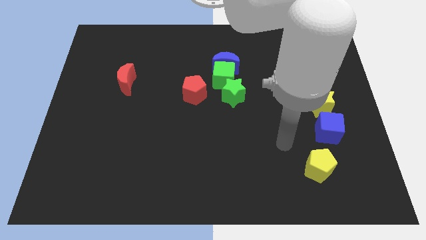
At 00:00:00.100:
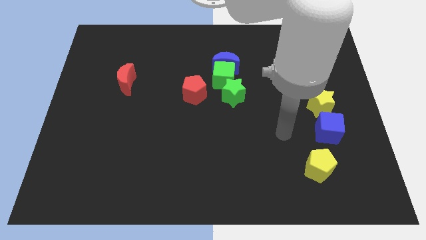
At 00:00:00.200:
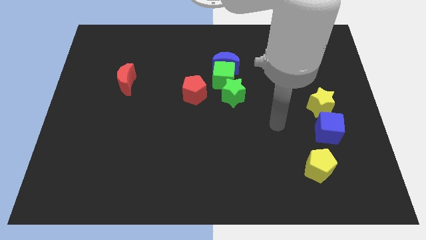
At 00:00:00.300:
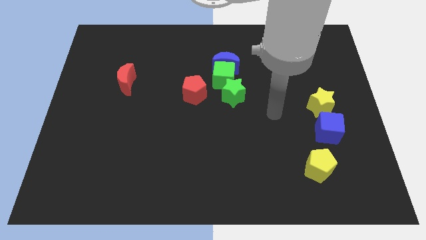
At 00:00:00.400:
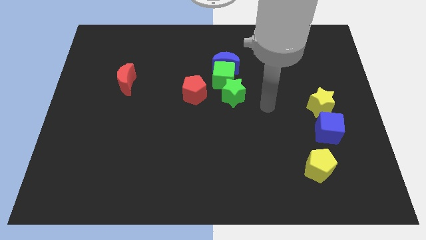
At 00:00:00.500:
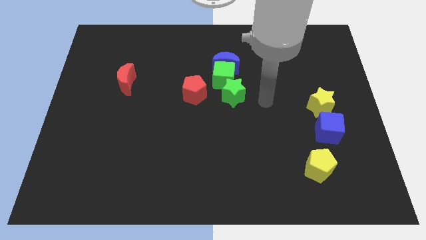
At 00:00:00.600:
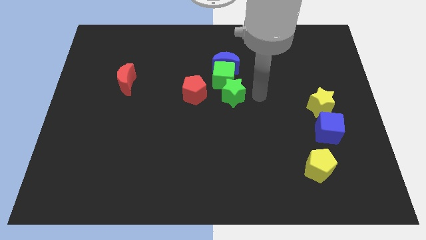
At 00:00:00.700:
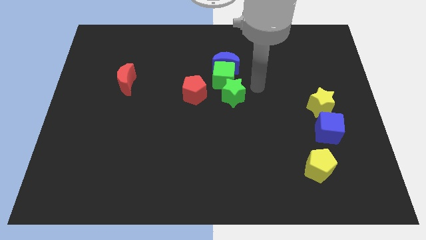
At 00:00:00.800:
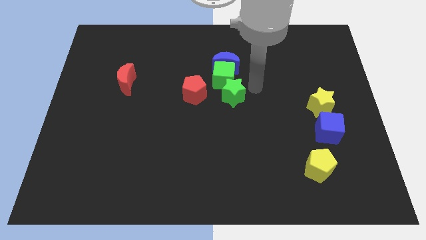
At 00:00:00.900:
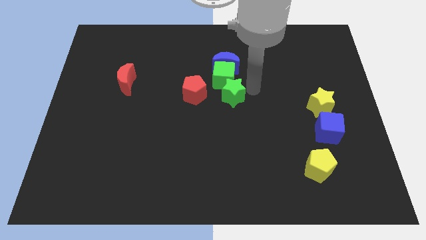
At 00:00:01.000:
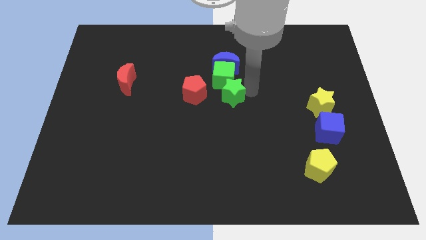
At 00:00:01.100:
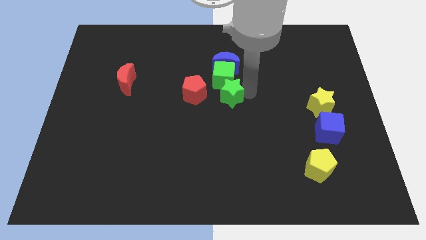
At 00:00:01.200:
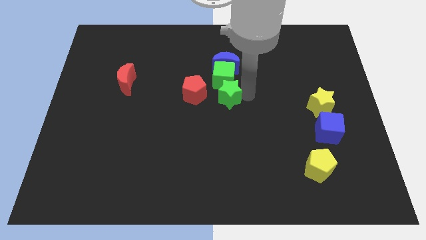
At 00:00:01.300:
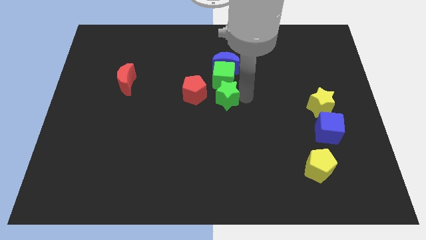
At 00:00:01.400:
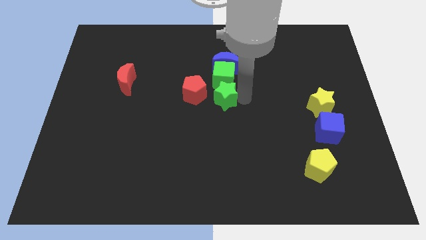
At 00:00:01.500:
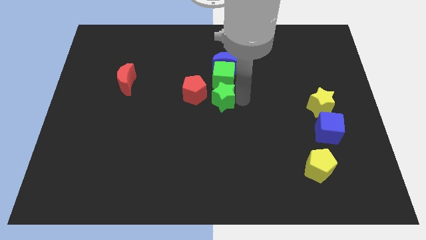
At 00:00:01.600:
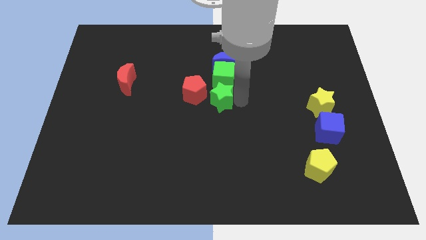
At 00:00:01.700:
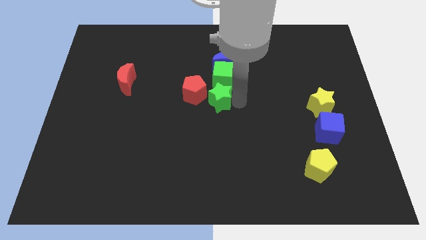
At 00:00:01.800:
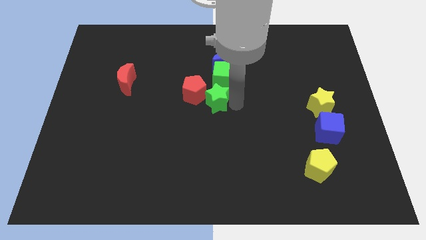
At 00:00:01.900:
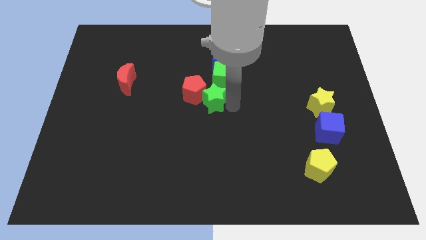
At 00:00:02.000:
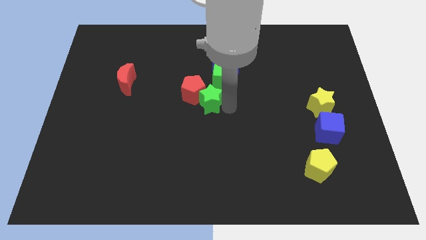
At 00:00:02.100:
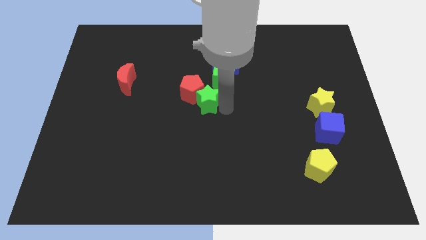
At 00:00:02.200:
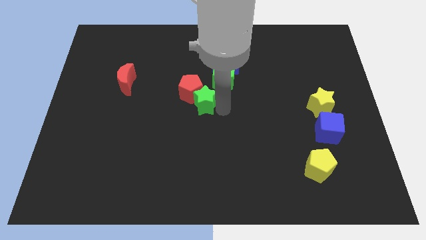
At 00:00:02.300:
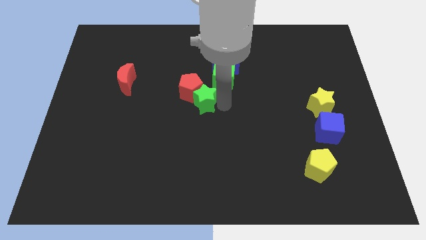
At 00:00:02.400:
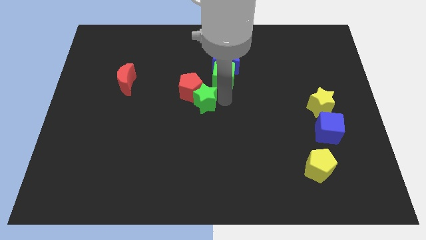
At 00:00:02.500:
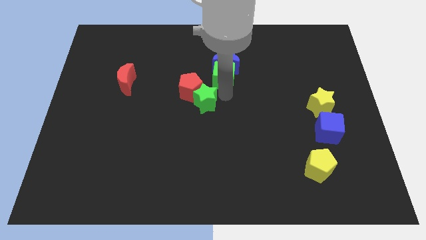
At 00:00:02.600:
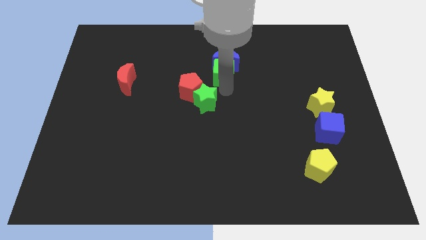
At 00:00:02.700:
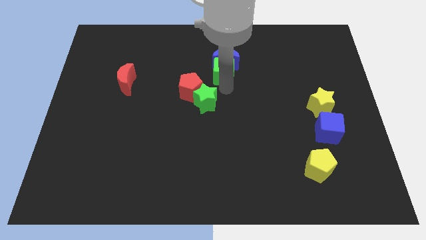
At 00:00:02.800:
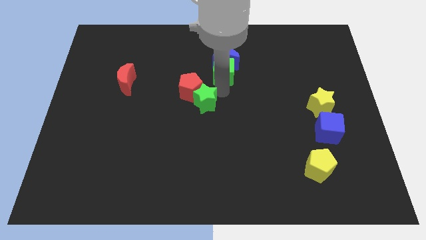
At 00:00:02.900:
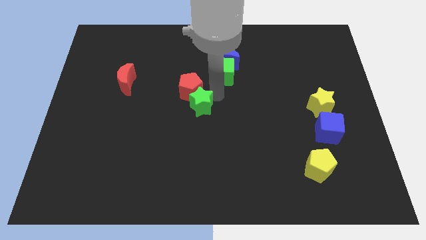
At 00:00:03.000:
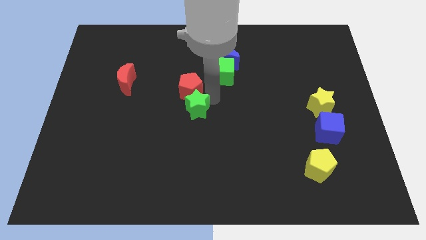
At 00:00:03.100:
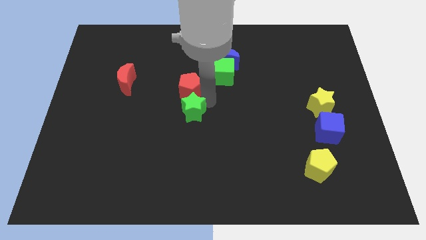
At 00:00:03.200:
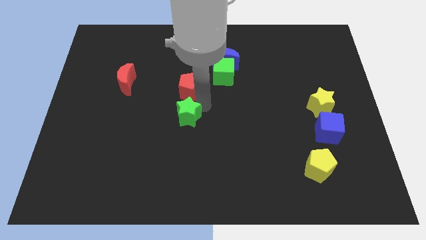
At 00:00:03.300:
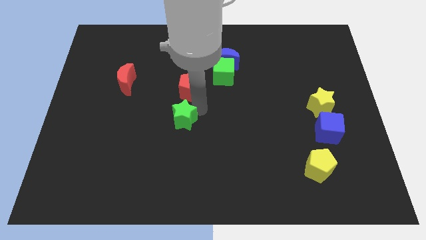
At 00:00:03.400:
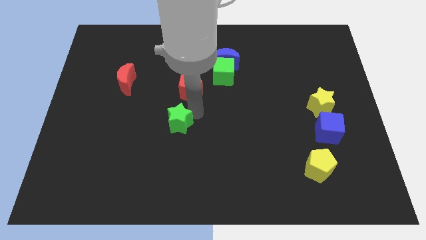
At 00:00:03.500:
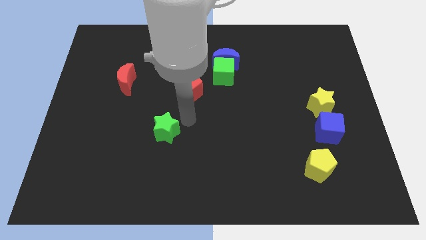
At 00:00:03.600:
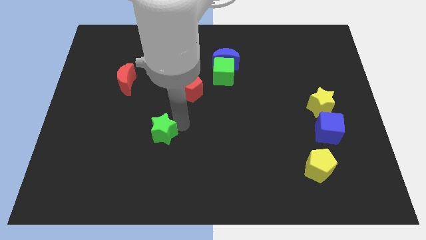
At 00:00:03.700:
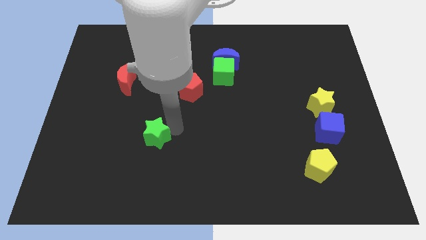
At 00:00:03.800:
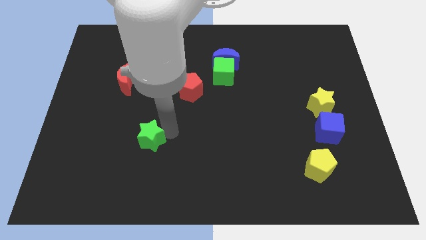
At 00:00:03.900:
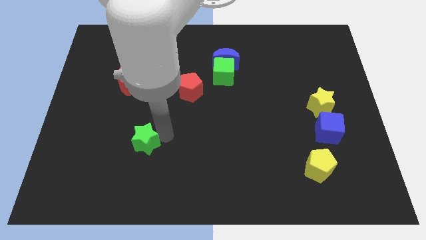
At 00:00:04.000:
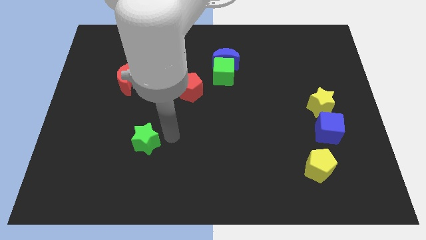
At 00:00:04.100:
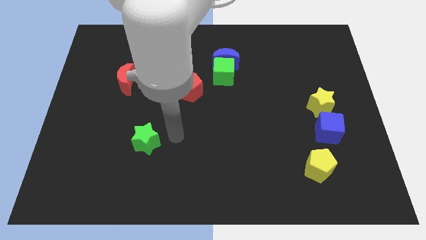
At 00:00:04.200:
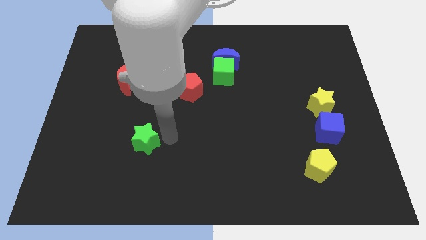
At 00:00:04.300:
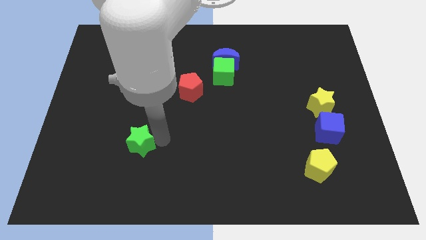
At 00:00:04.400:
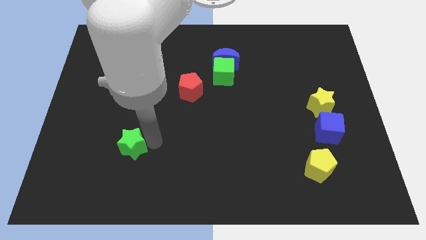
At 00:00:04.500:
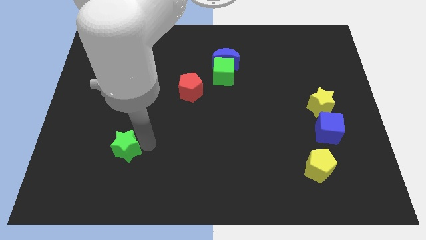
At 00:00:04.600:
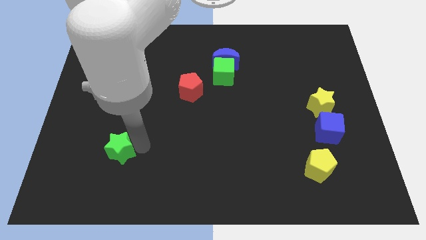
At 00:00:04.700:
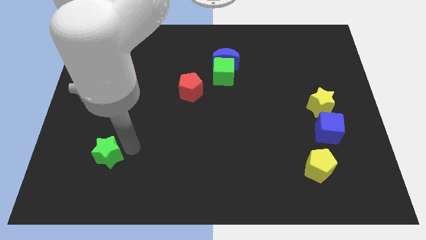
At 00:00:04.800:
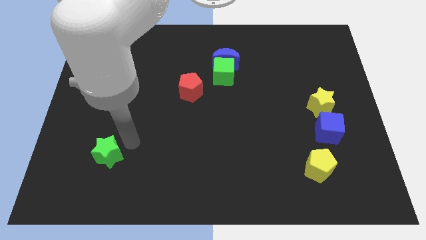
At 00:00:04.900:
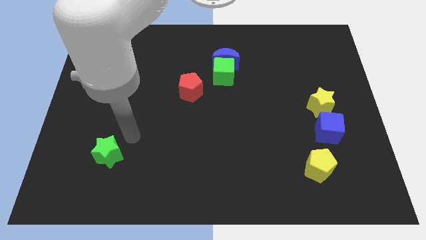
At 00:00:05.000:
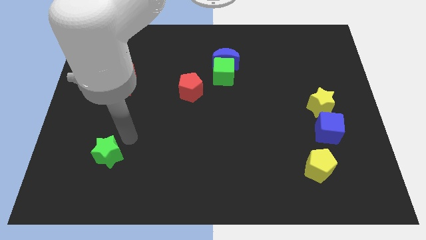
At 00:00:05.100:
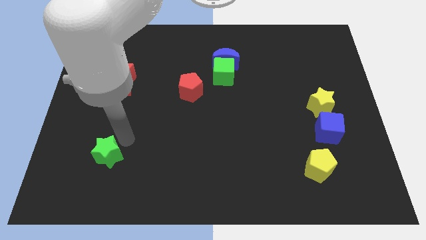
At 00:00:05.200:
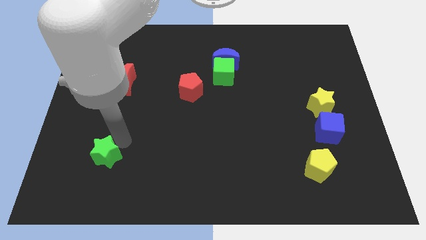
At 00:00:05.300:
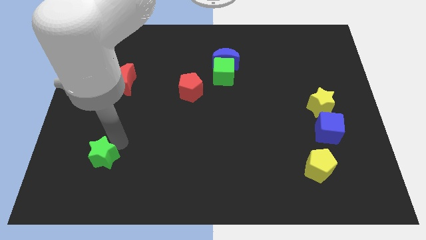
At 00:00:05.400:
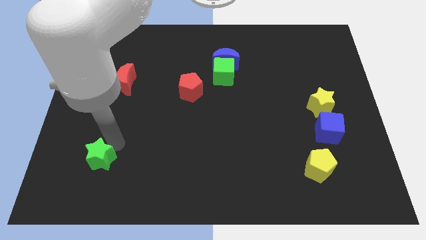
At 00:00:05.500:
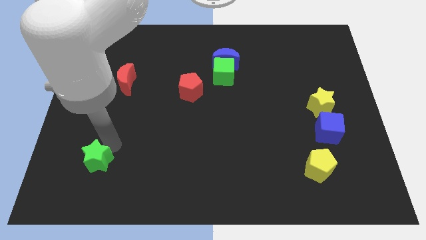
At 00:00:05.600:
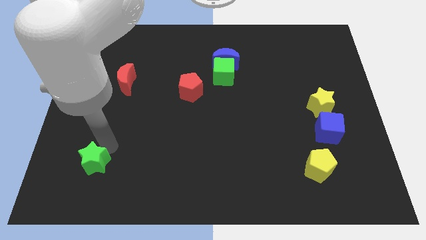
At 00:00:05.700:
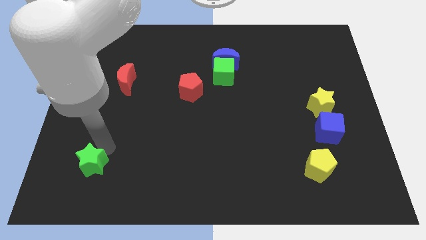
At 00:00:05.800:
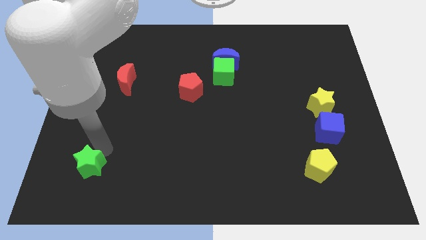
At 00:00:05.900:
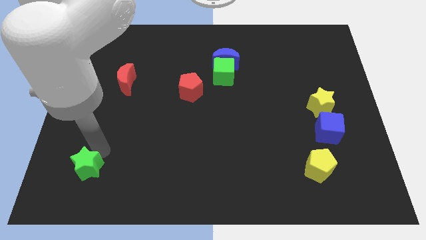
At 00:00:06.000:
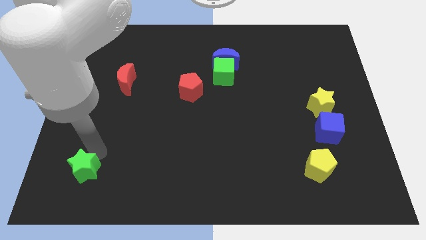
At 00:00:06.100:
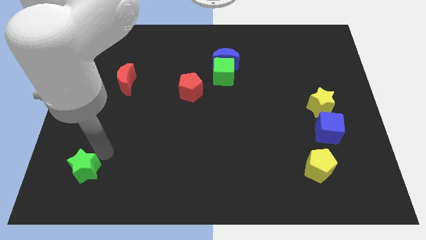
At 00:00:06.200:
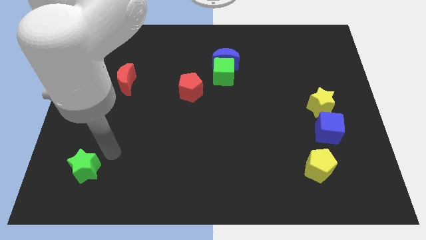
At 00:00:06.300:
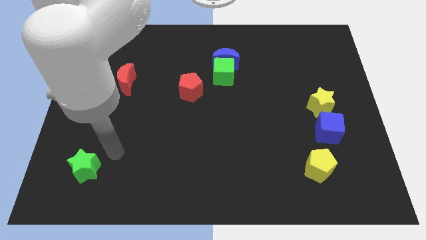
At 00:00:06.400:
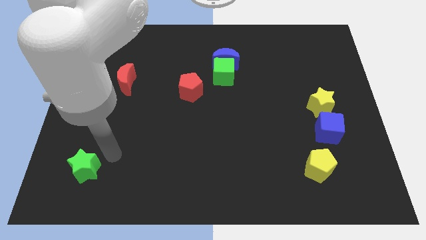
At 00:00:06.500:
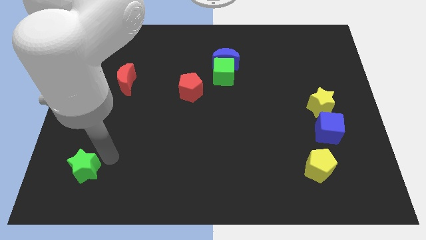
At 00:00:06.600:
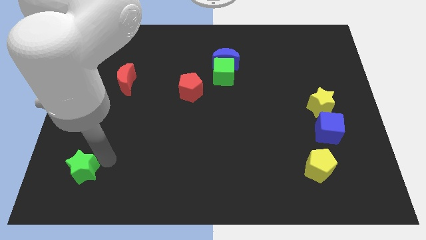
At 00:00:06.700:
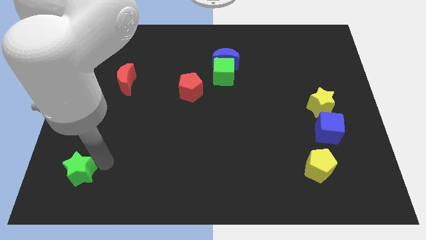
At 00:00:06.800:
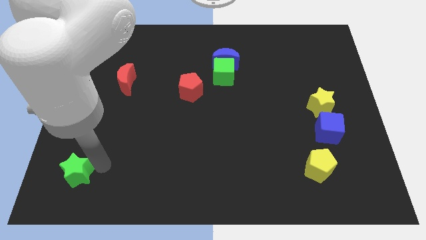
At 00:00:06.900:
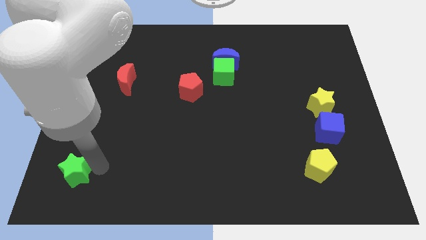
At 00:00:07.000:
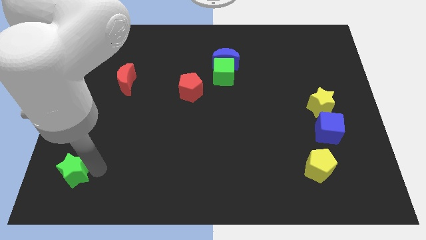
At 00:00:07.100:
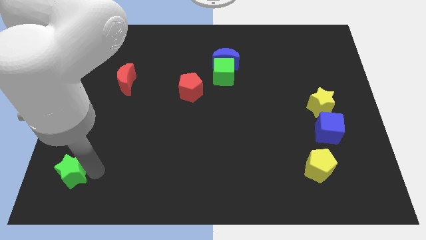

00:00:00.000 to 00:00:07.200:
push the green star to the lower left corner
